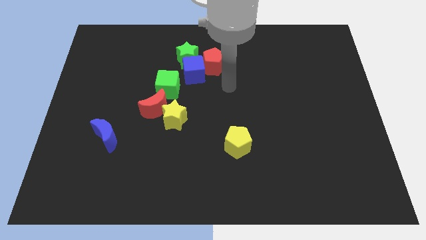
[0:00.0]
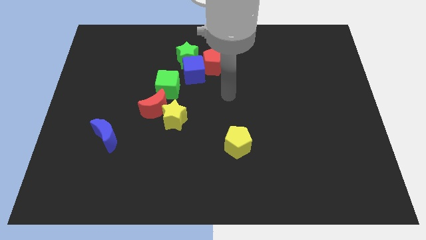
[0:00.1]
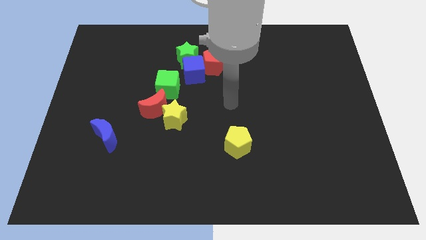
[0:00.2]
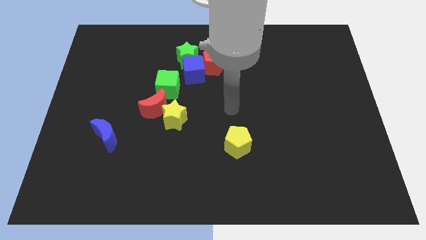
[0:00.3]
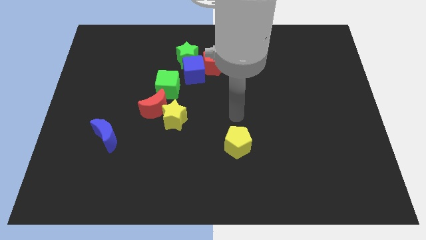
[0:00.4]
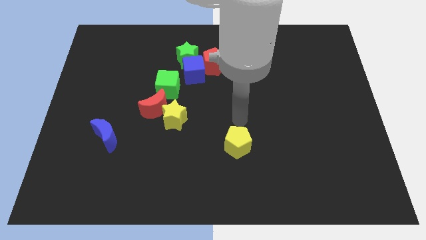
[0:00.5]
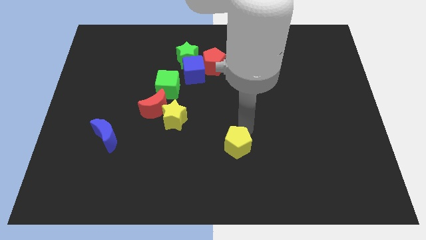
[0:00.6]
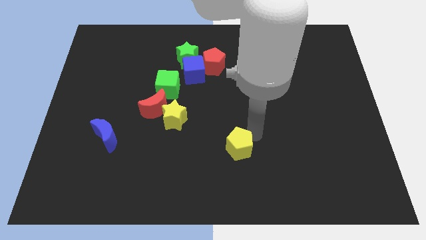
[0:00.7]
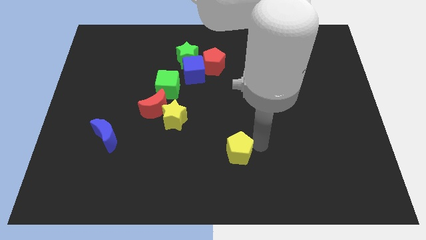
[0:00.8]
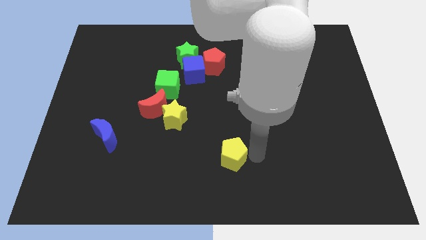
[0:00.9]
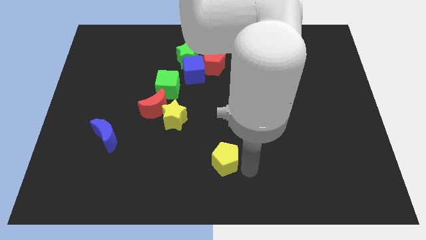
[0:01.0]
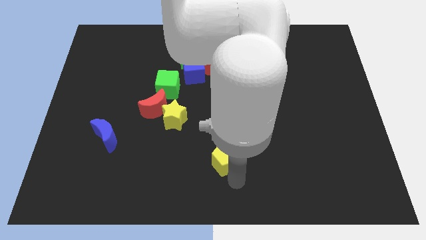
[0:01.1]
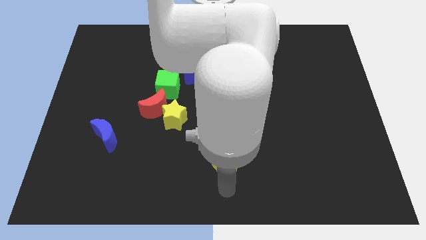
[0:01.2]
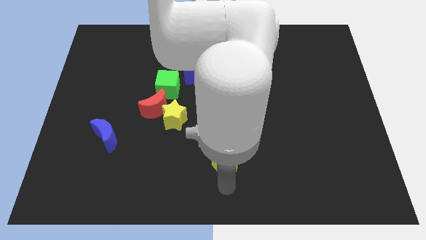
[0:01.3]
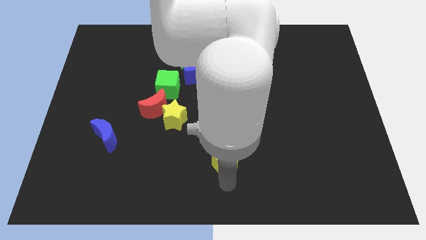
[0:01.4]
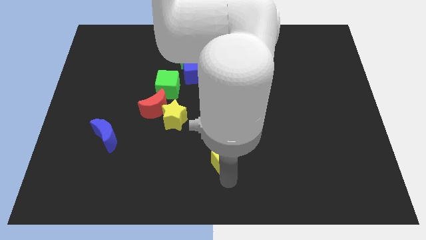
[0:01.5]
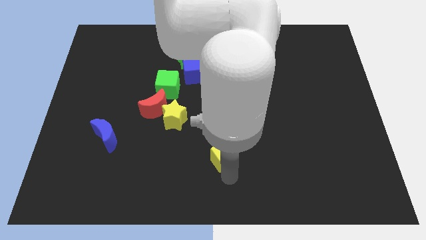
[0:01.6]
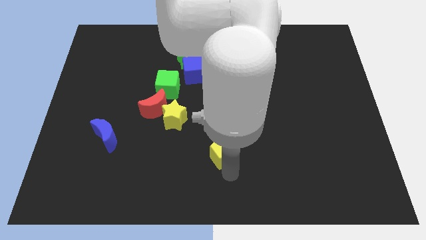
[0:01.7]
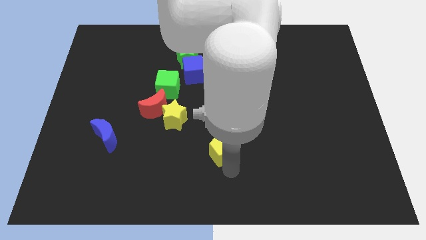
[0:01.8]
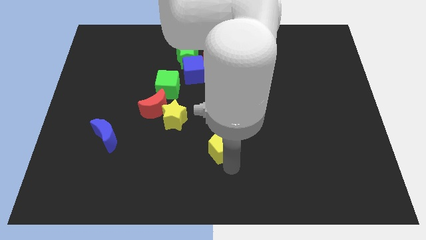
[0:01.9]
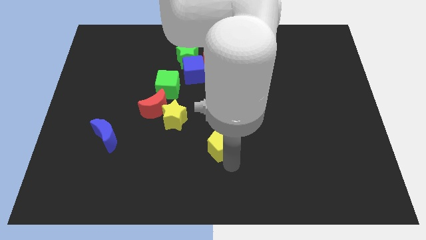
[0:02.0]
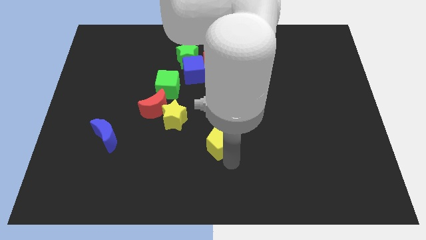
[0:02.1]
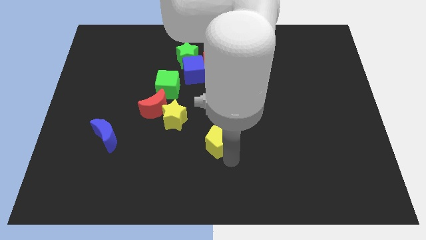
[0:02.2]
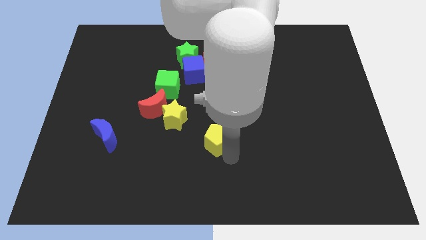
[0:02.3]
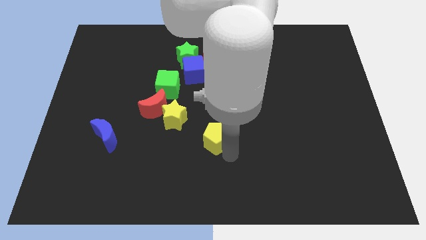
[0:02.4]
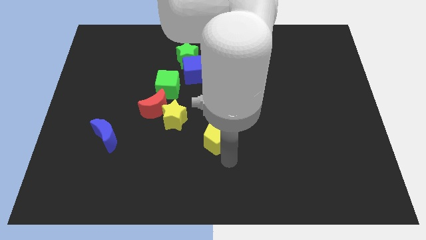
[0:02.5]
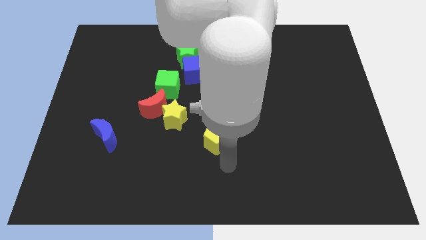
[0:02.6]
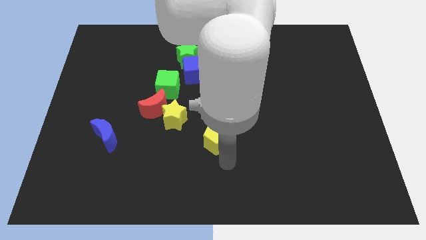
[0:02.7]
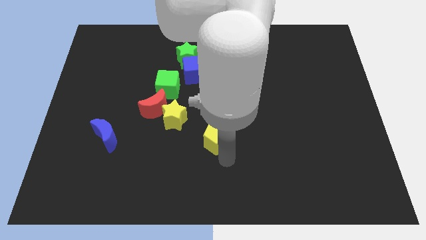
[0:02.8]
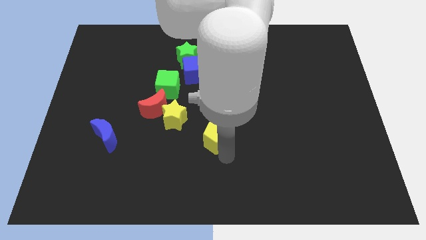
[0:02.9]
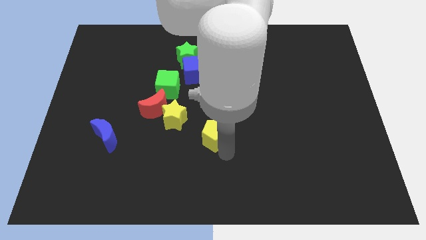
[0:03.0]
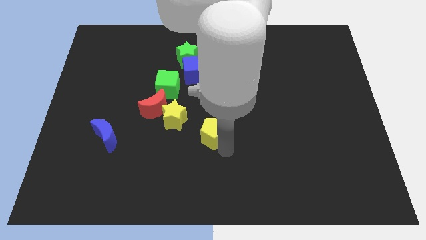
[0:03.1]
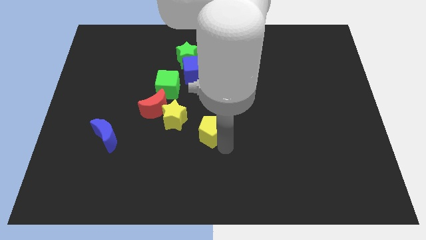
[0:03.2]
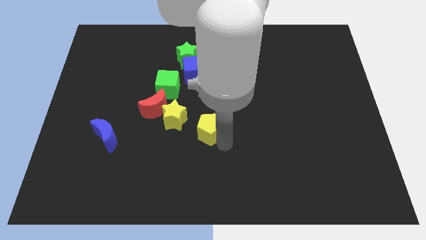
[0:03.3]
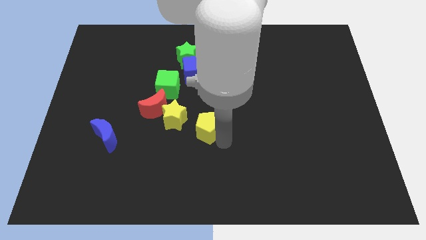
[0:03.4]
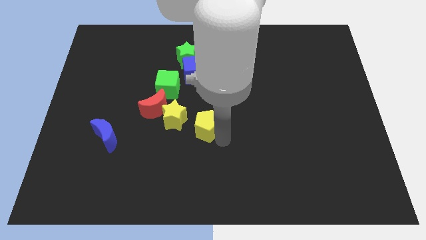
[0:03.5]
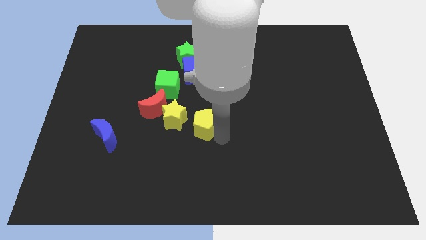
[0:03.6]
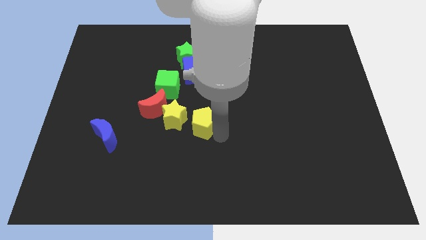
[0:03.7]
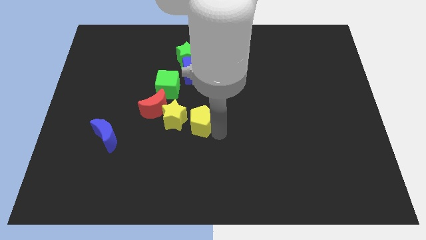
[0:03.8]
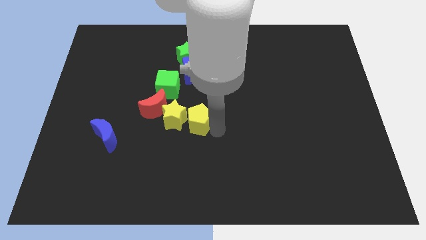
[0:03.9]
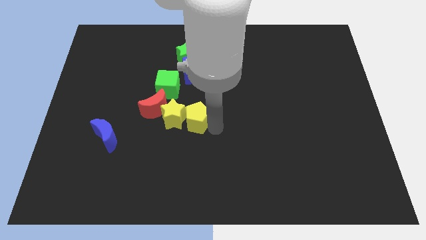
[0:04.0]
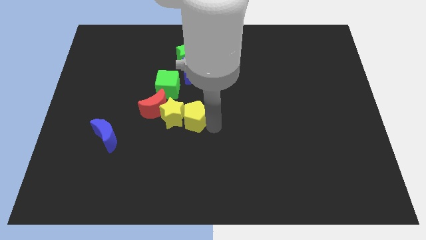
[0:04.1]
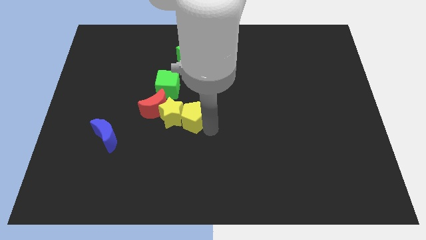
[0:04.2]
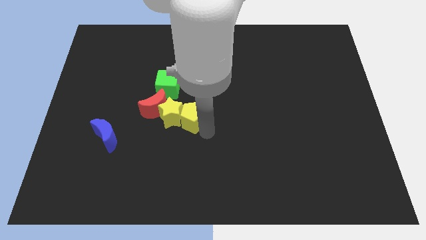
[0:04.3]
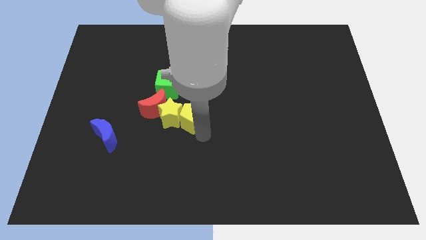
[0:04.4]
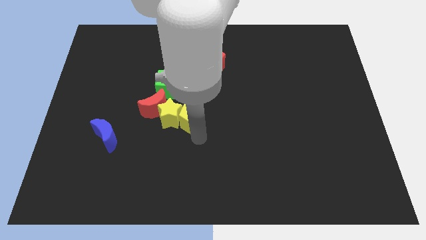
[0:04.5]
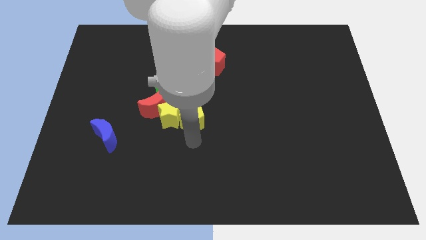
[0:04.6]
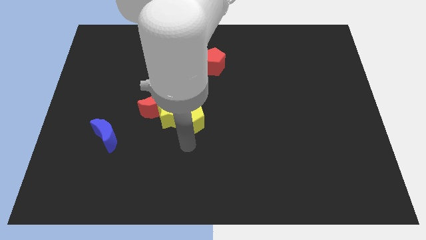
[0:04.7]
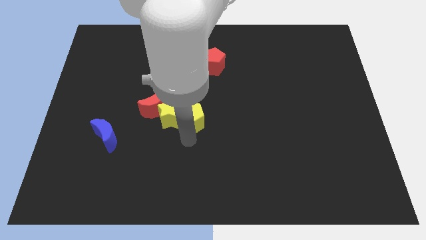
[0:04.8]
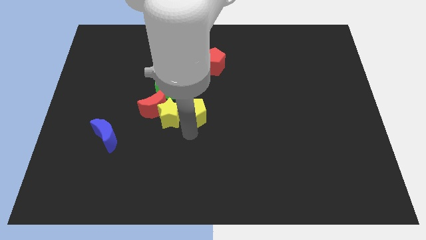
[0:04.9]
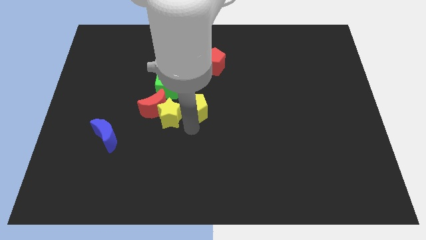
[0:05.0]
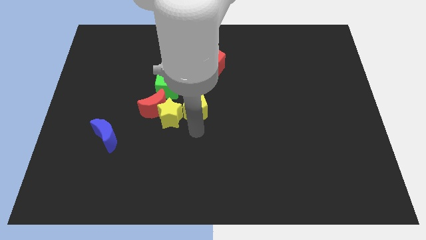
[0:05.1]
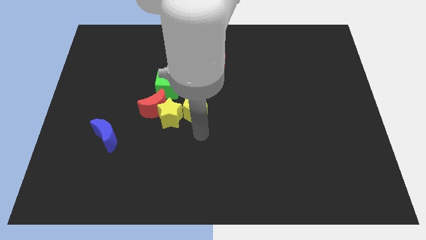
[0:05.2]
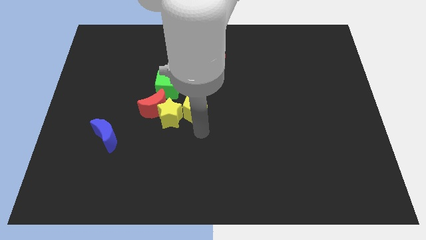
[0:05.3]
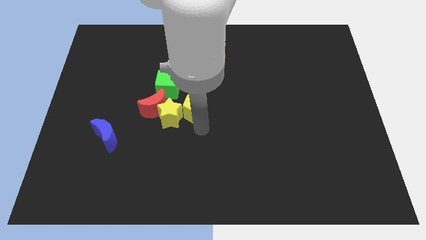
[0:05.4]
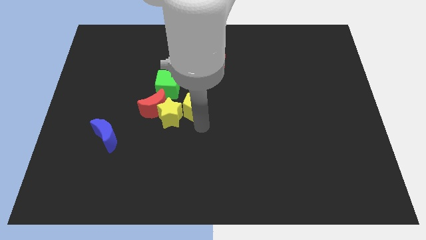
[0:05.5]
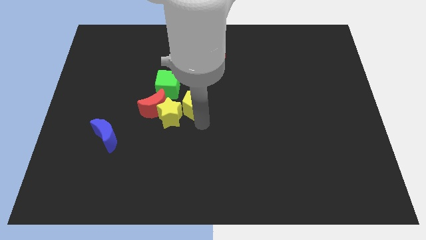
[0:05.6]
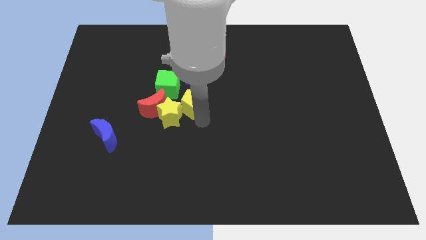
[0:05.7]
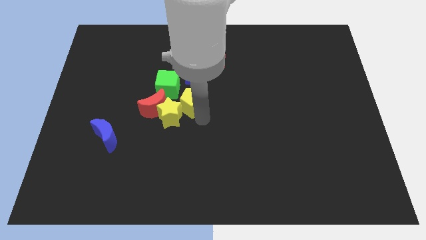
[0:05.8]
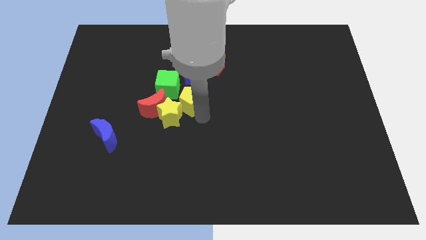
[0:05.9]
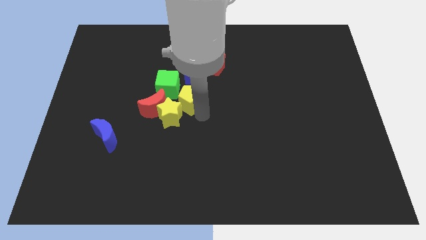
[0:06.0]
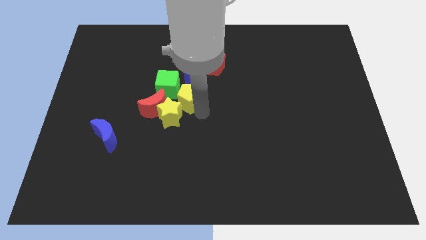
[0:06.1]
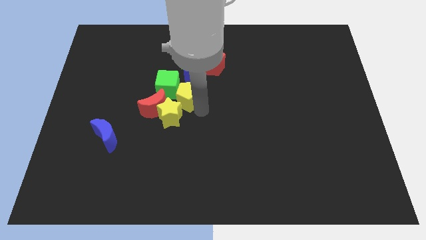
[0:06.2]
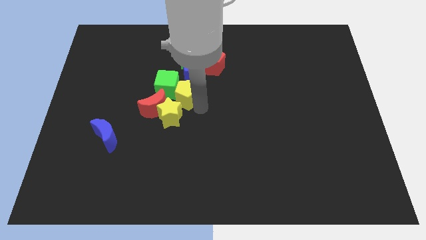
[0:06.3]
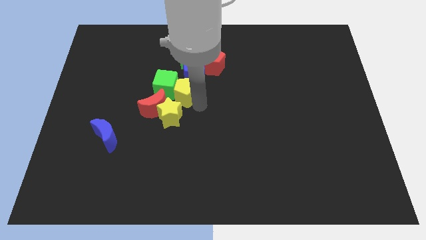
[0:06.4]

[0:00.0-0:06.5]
slide the yellow pentagon diagonally down and to the left of the red pentagon

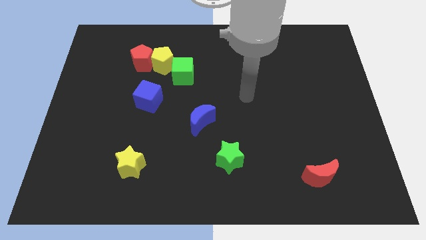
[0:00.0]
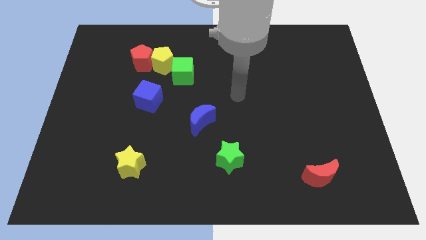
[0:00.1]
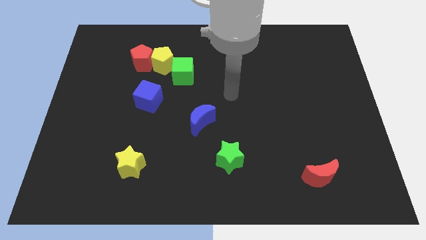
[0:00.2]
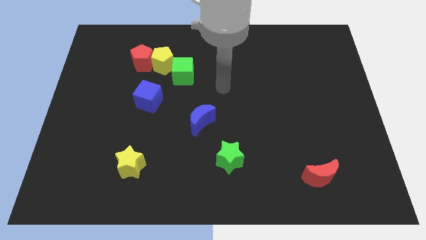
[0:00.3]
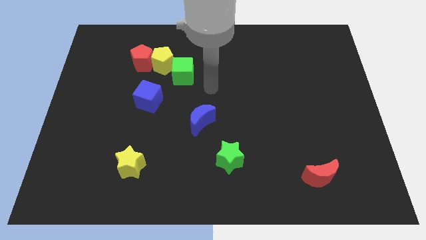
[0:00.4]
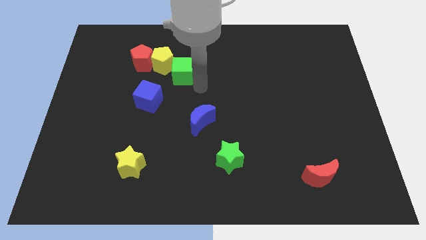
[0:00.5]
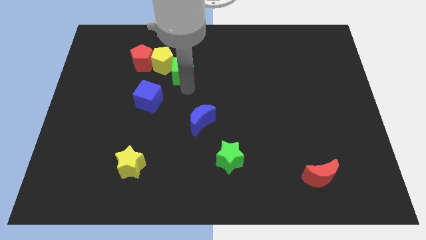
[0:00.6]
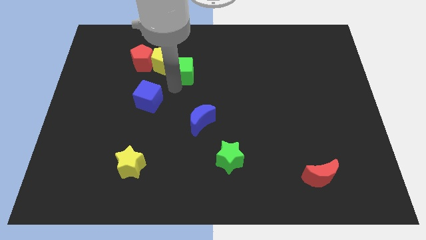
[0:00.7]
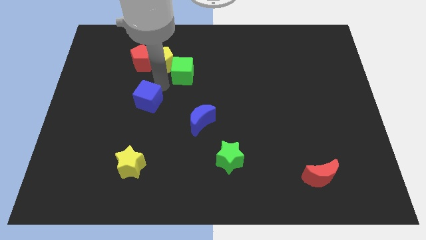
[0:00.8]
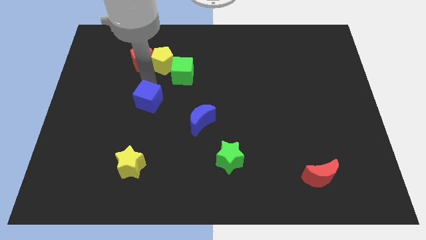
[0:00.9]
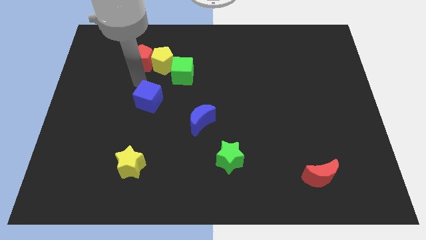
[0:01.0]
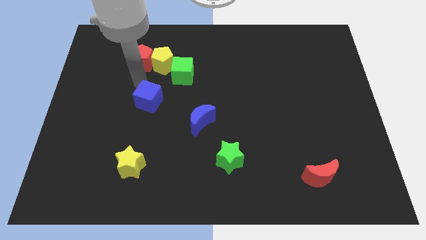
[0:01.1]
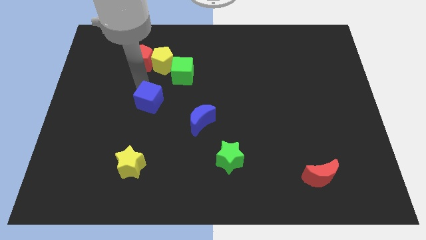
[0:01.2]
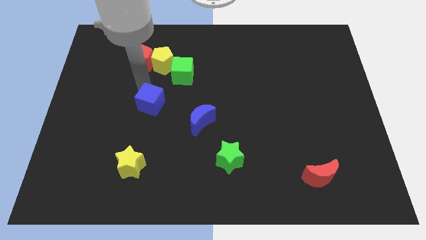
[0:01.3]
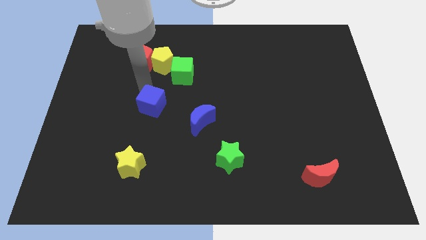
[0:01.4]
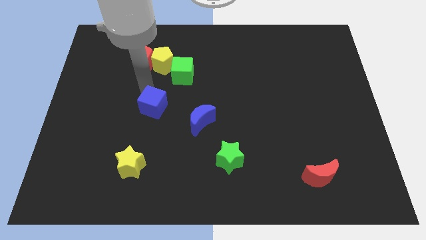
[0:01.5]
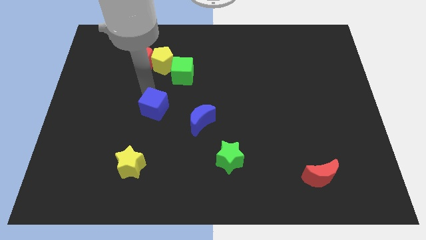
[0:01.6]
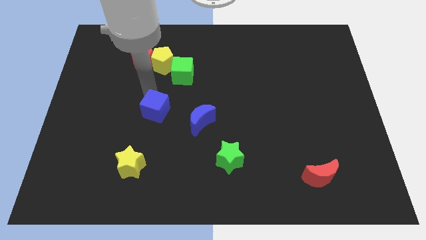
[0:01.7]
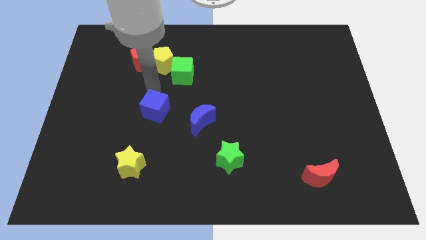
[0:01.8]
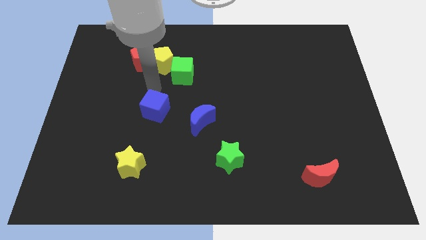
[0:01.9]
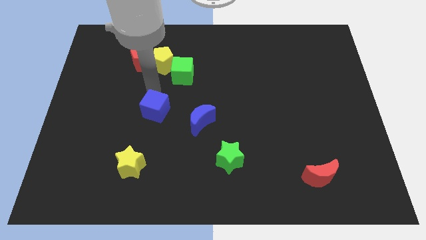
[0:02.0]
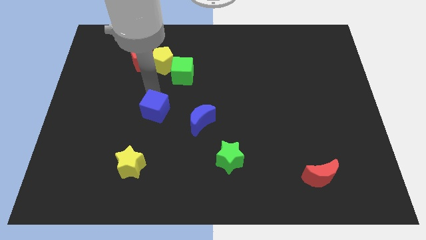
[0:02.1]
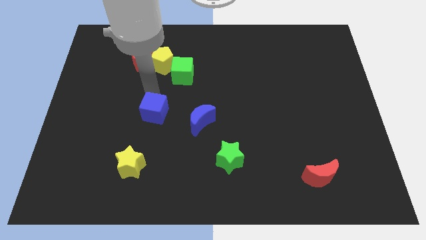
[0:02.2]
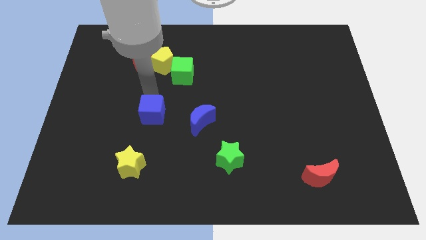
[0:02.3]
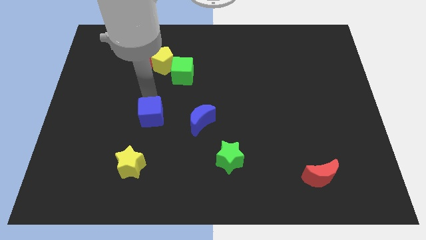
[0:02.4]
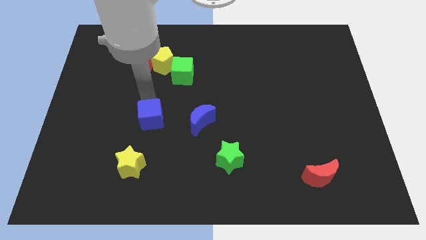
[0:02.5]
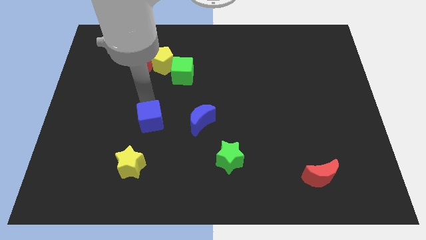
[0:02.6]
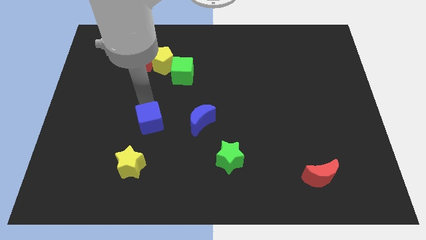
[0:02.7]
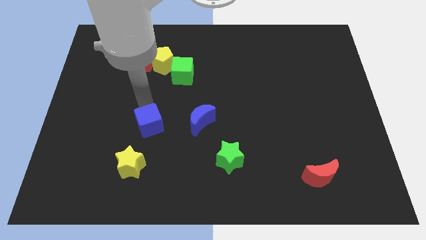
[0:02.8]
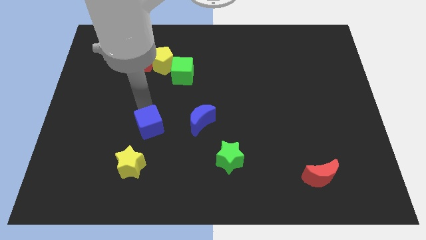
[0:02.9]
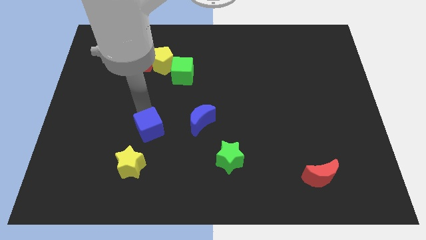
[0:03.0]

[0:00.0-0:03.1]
slide the blue cube diagonally up and to the right of the yellow star
